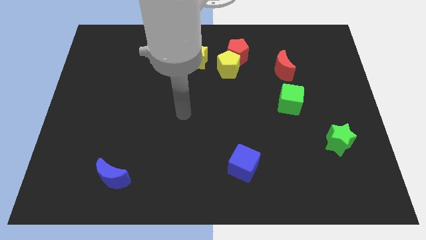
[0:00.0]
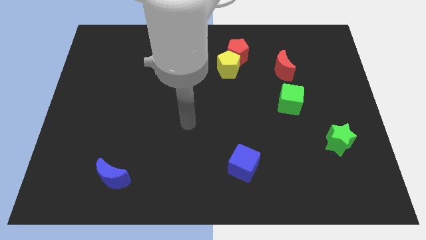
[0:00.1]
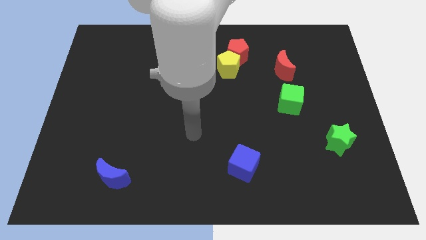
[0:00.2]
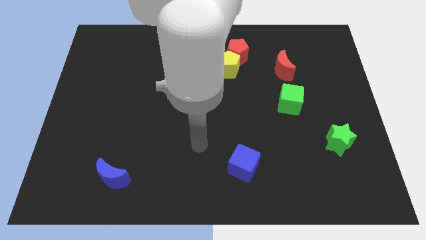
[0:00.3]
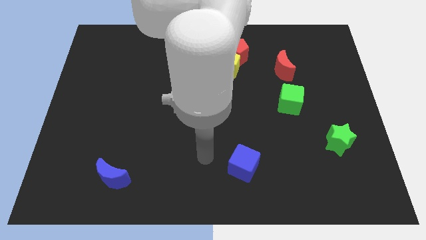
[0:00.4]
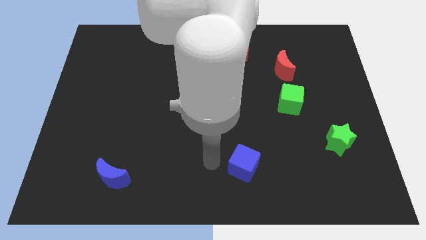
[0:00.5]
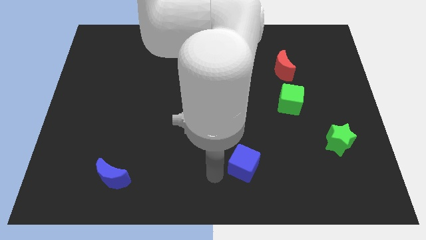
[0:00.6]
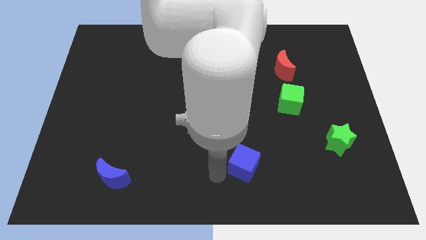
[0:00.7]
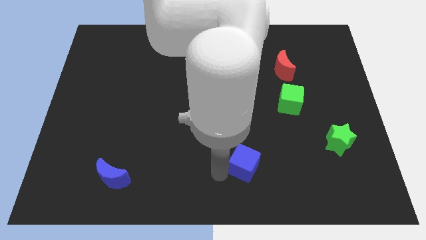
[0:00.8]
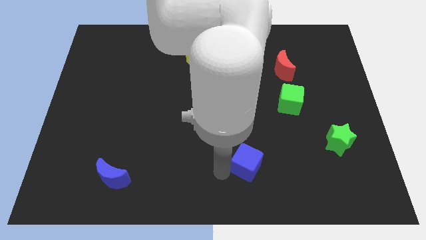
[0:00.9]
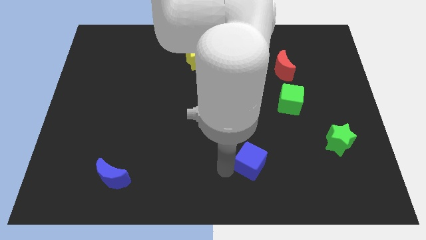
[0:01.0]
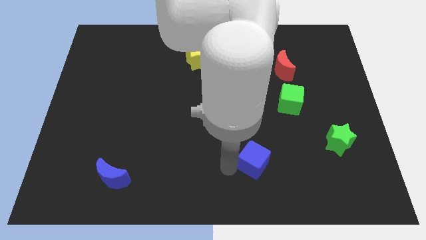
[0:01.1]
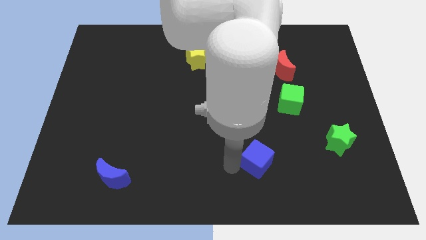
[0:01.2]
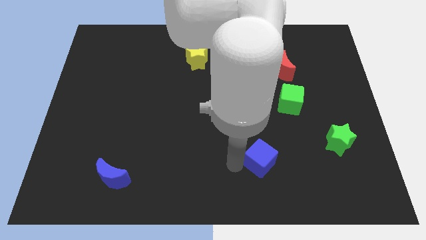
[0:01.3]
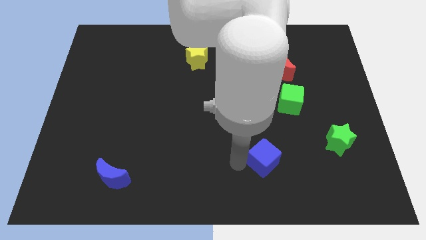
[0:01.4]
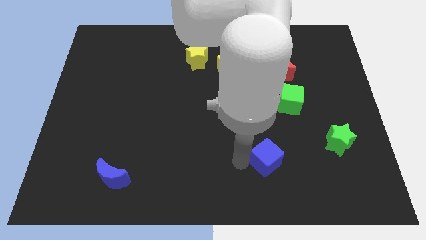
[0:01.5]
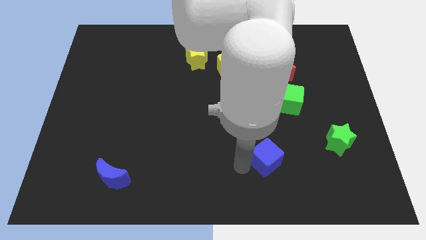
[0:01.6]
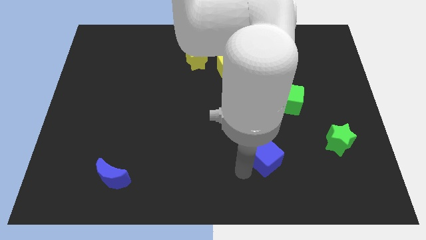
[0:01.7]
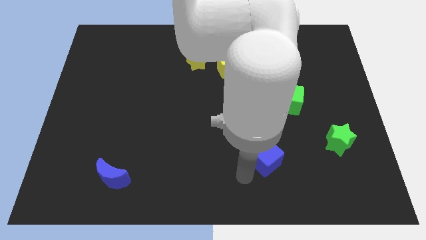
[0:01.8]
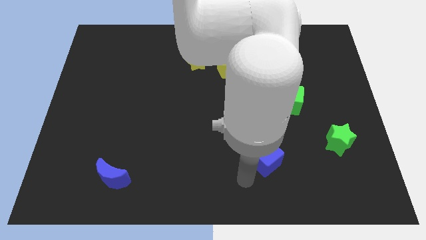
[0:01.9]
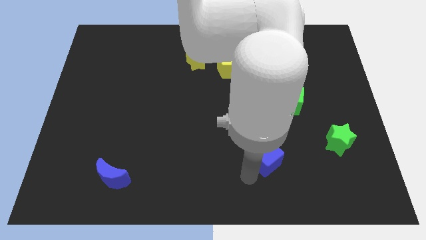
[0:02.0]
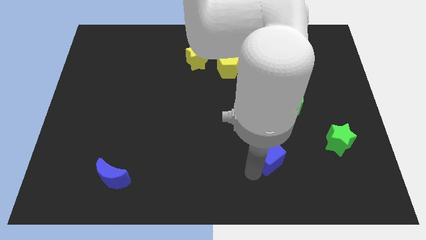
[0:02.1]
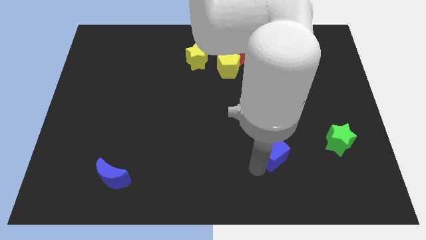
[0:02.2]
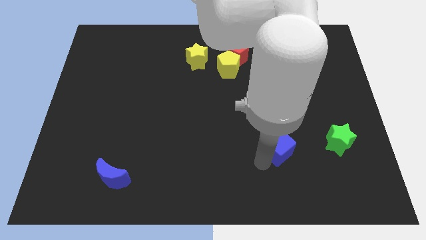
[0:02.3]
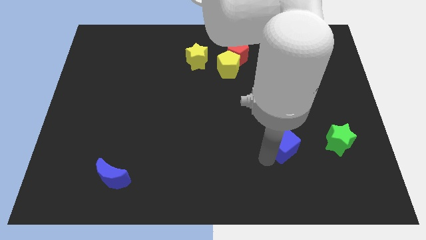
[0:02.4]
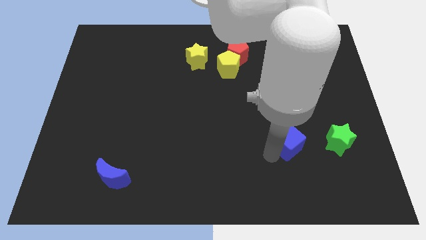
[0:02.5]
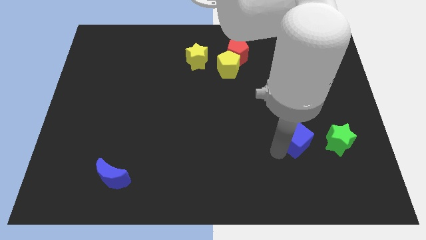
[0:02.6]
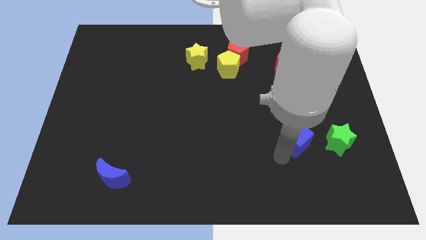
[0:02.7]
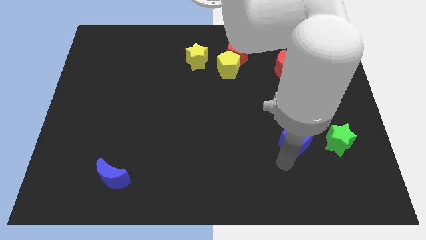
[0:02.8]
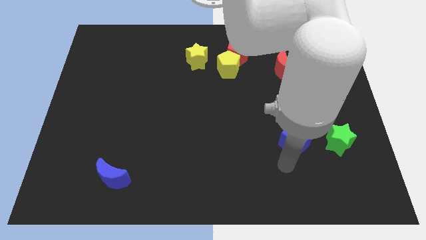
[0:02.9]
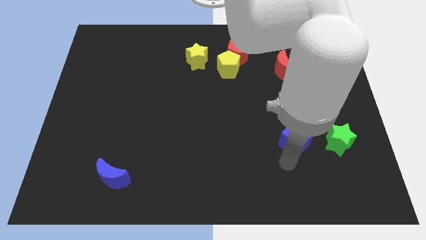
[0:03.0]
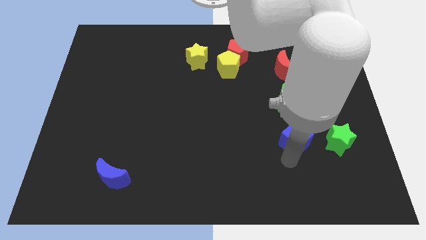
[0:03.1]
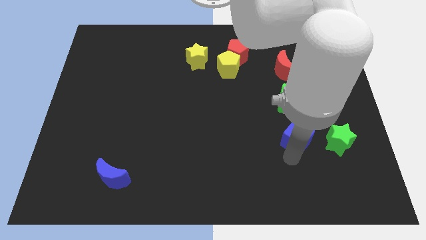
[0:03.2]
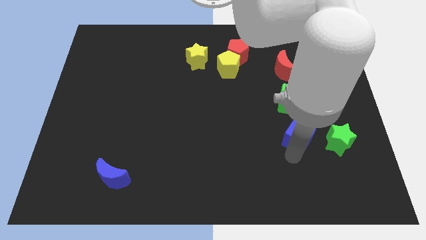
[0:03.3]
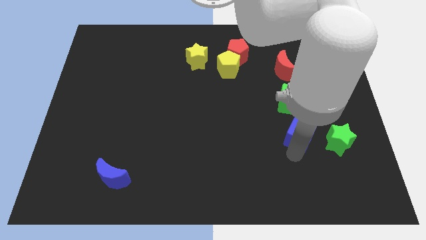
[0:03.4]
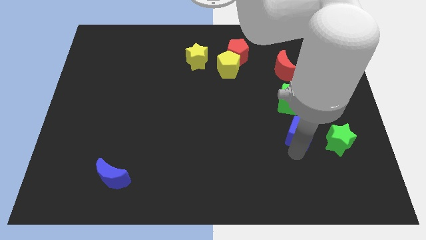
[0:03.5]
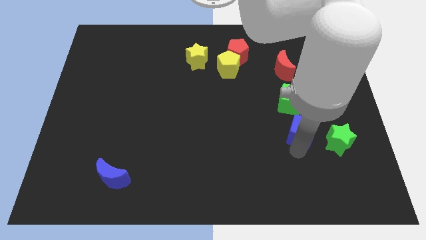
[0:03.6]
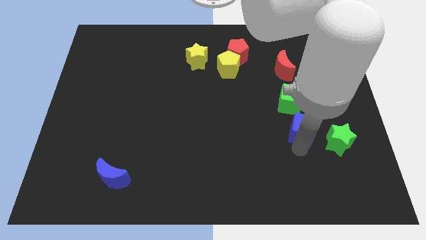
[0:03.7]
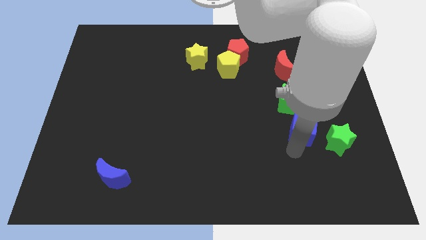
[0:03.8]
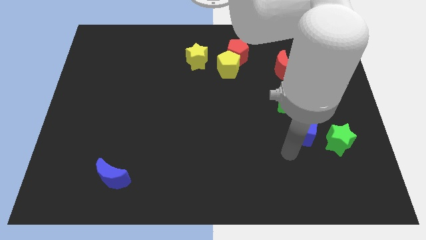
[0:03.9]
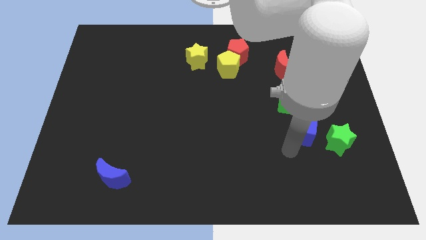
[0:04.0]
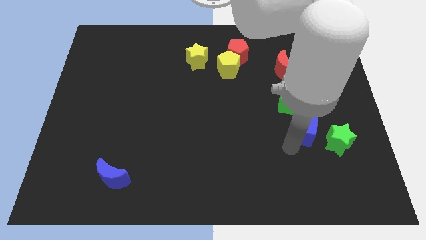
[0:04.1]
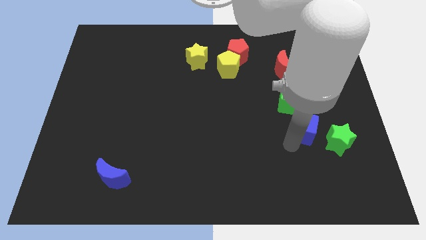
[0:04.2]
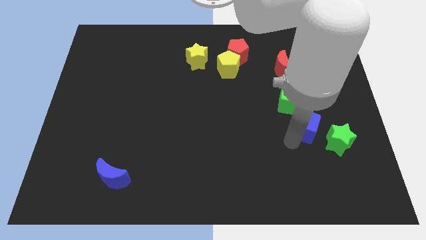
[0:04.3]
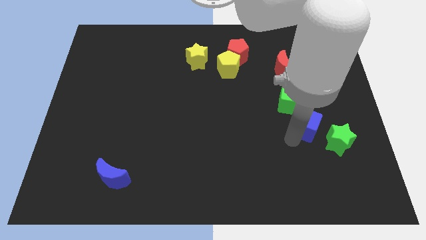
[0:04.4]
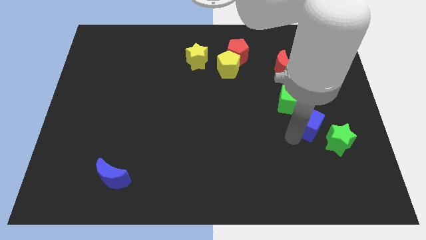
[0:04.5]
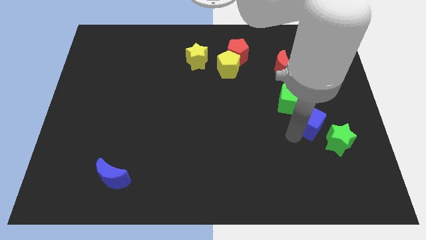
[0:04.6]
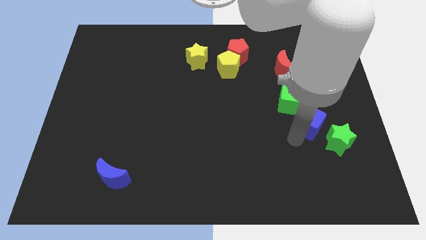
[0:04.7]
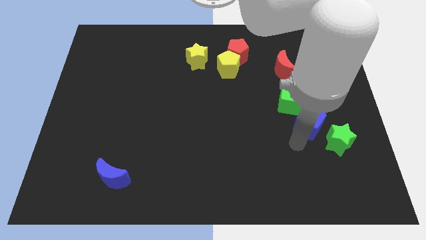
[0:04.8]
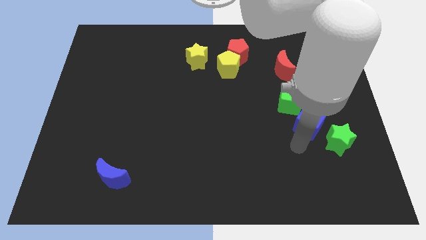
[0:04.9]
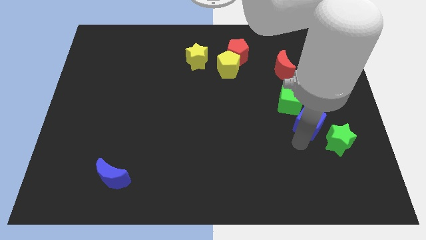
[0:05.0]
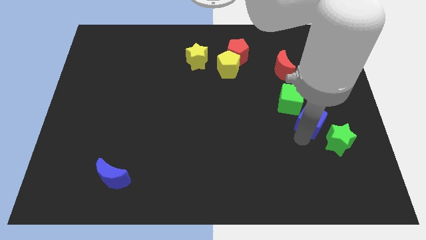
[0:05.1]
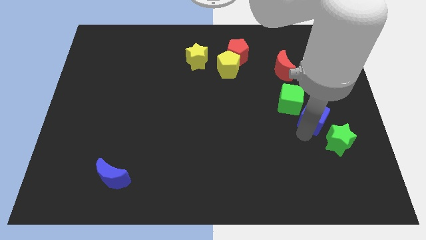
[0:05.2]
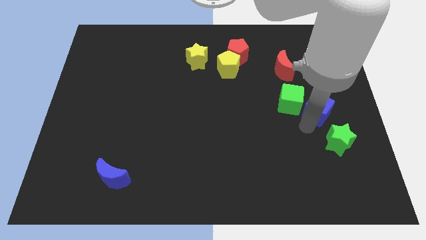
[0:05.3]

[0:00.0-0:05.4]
put the blue cube to the right of the green cube

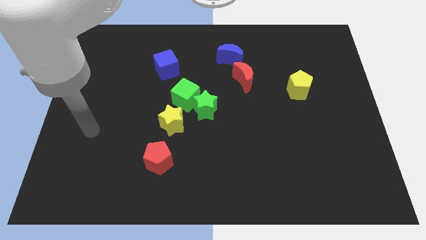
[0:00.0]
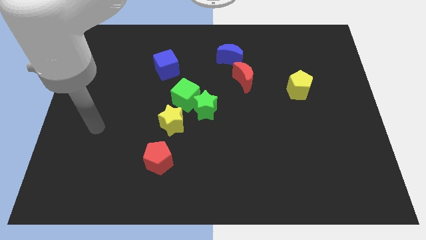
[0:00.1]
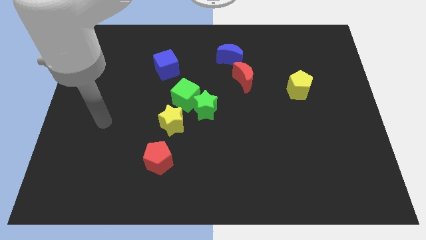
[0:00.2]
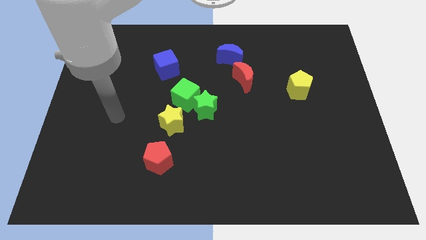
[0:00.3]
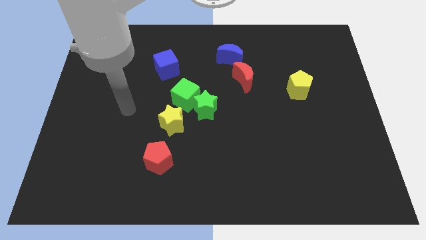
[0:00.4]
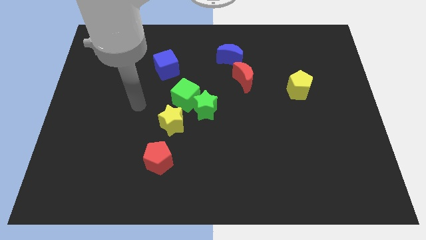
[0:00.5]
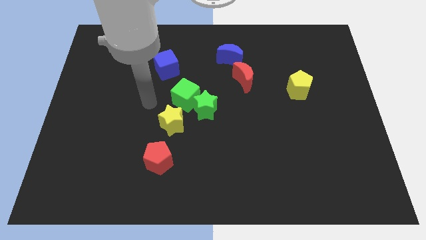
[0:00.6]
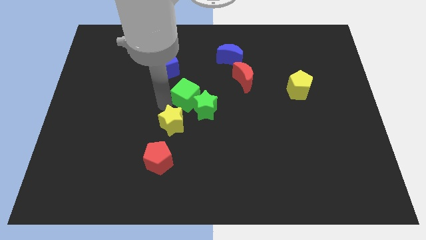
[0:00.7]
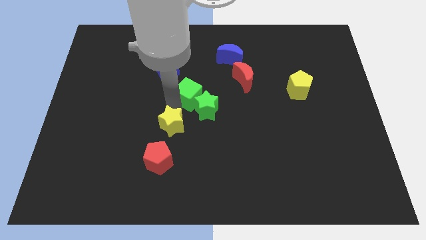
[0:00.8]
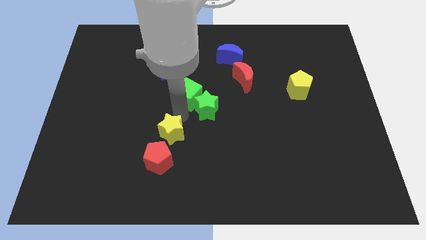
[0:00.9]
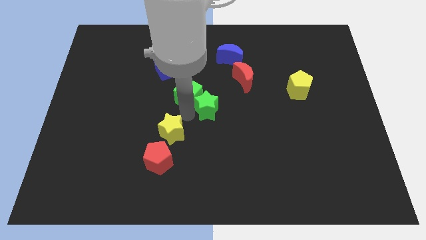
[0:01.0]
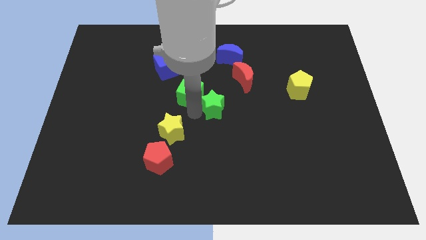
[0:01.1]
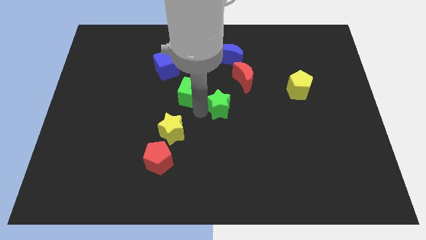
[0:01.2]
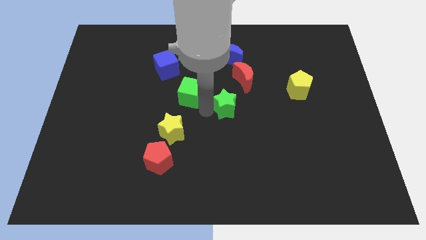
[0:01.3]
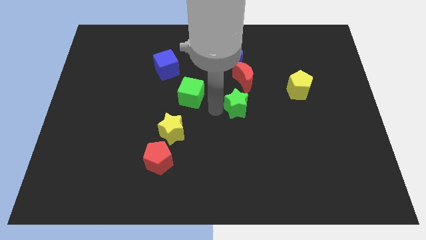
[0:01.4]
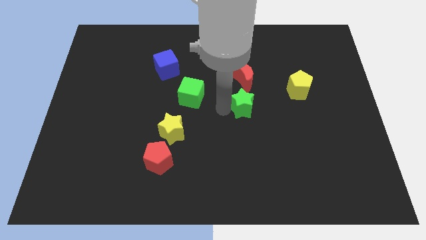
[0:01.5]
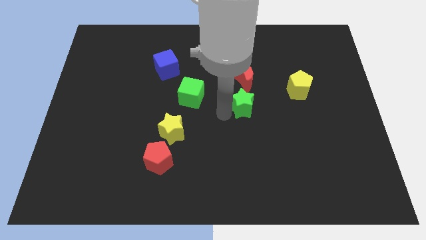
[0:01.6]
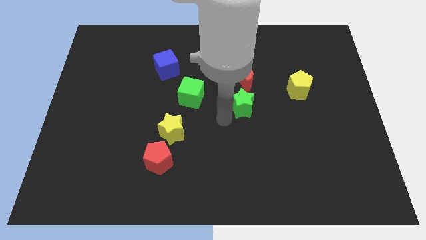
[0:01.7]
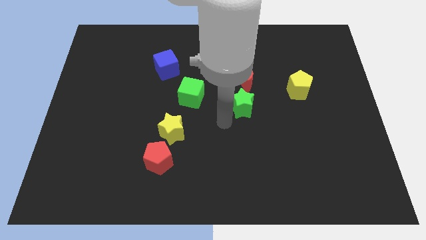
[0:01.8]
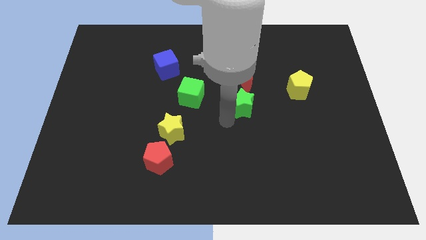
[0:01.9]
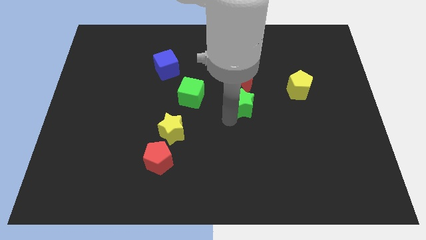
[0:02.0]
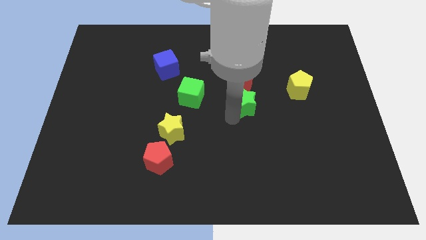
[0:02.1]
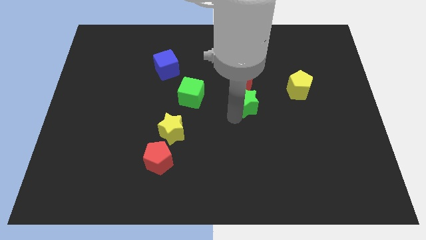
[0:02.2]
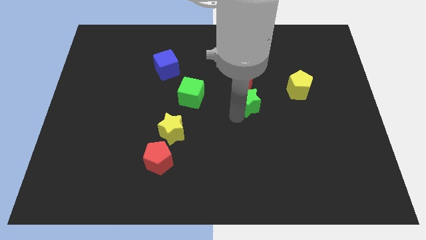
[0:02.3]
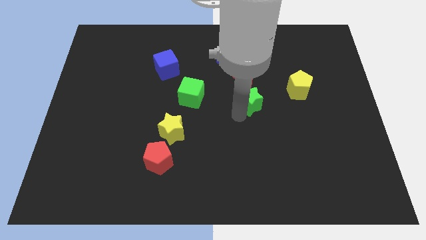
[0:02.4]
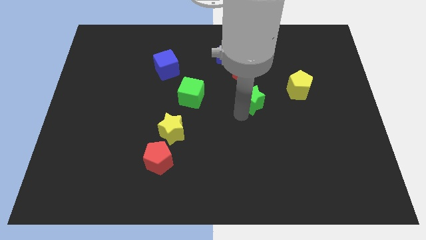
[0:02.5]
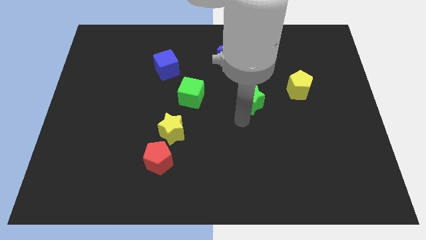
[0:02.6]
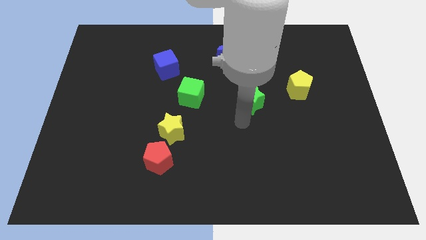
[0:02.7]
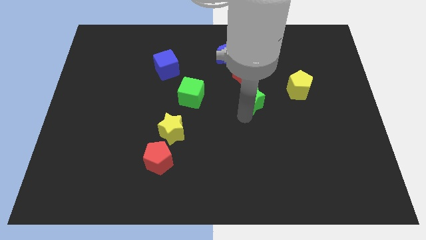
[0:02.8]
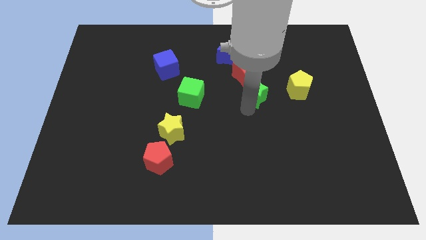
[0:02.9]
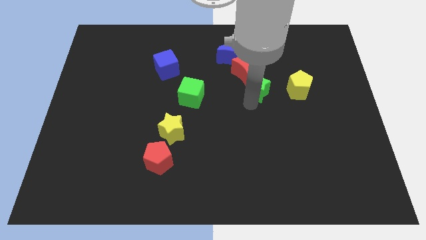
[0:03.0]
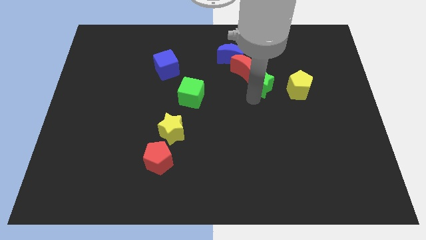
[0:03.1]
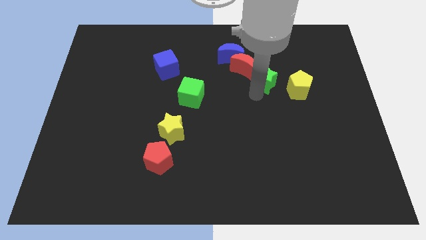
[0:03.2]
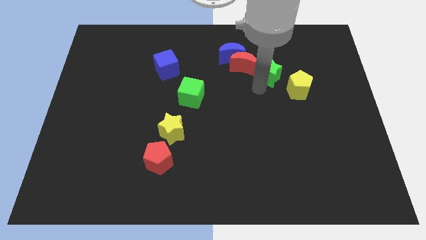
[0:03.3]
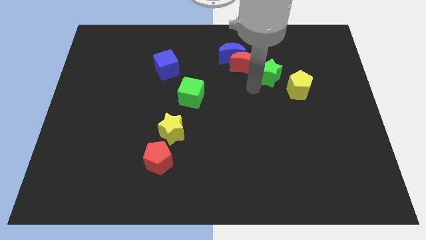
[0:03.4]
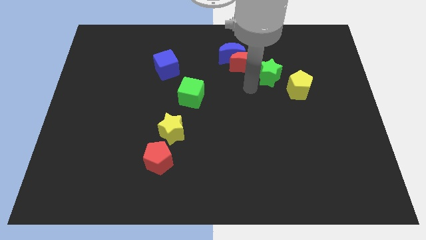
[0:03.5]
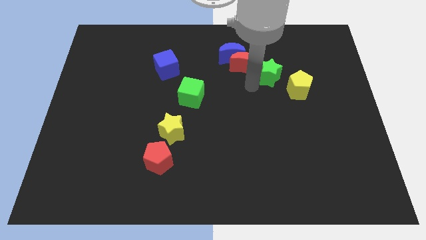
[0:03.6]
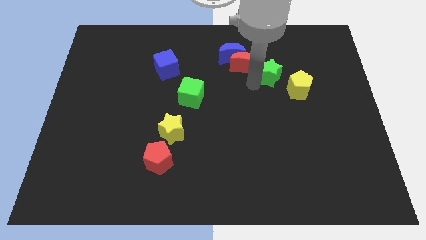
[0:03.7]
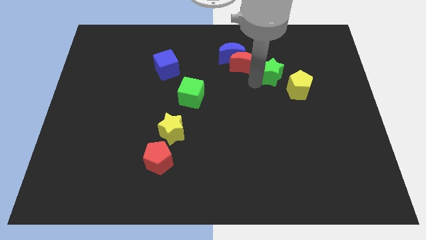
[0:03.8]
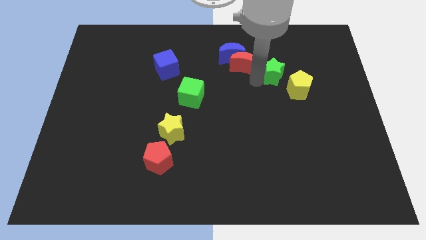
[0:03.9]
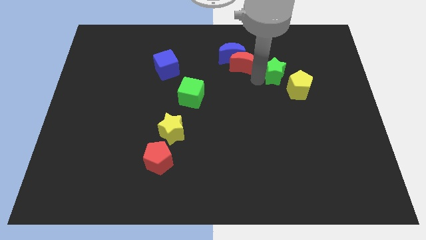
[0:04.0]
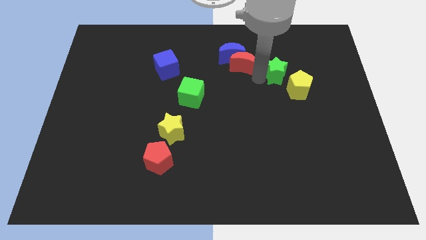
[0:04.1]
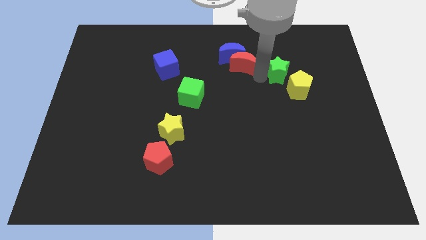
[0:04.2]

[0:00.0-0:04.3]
push the green star above the yellow pentagon
